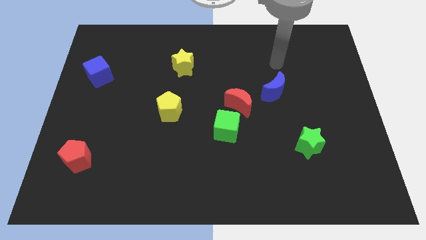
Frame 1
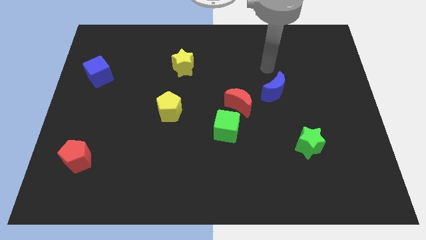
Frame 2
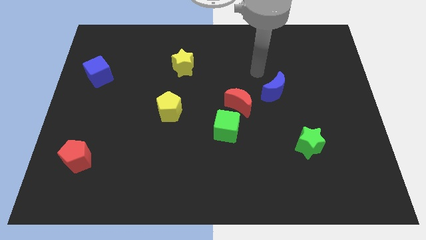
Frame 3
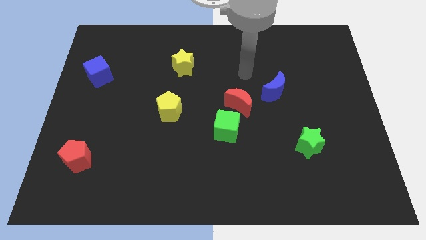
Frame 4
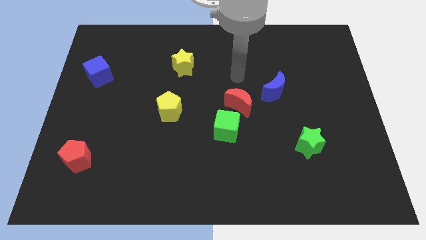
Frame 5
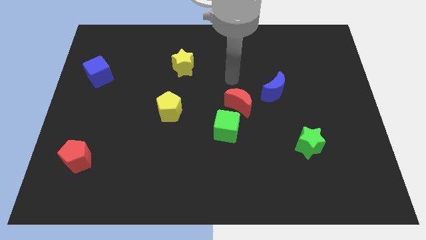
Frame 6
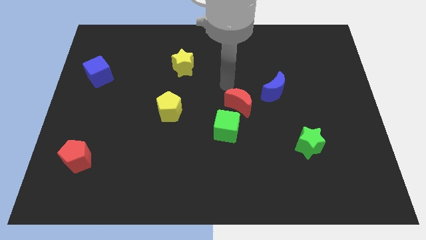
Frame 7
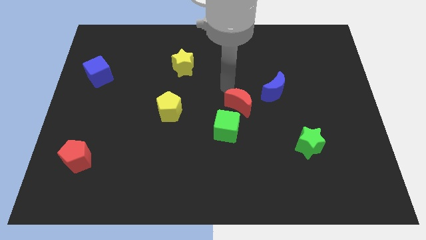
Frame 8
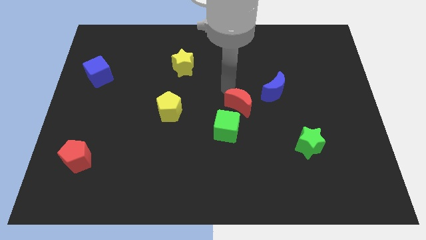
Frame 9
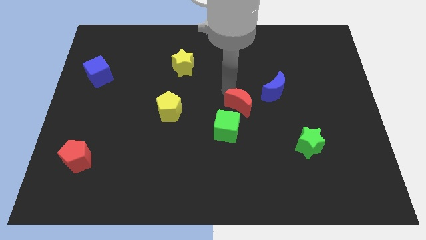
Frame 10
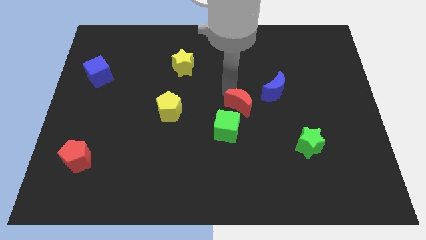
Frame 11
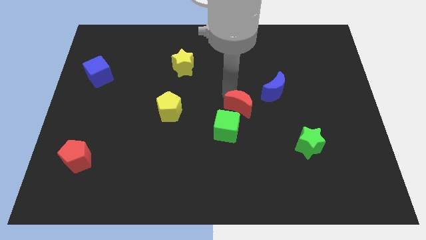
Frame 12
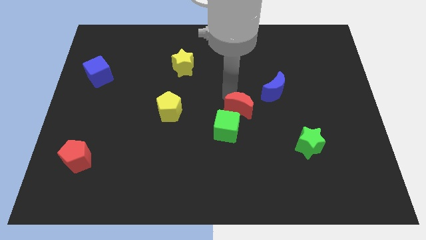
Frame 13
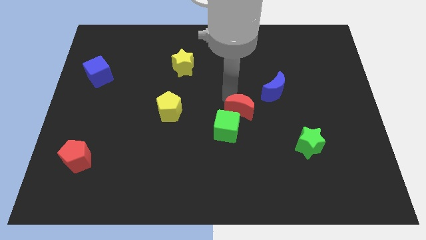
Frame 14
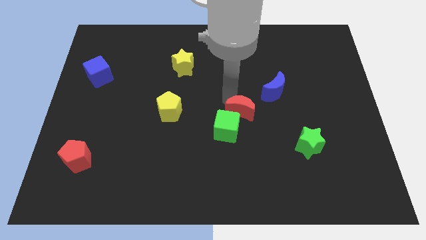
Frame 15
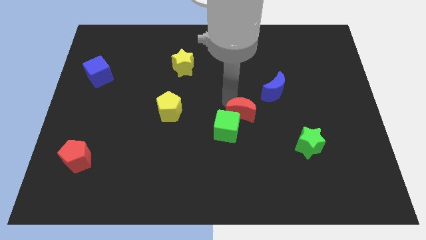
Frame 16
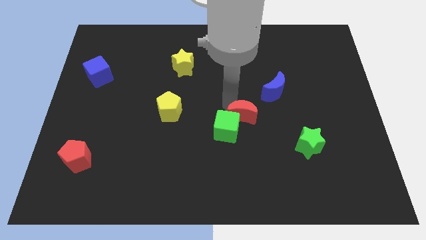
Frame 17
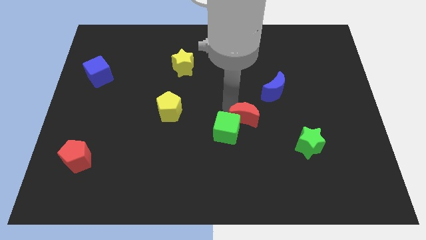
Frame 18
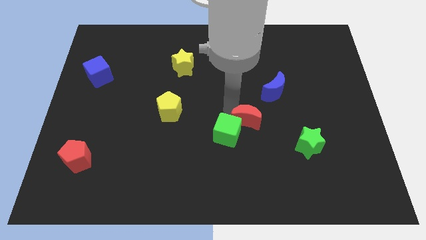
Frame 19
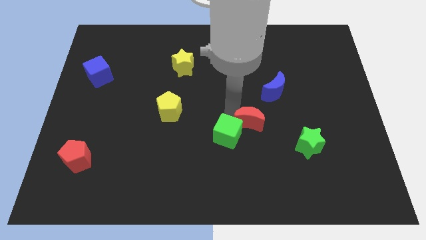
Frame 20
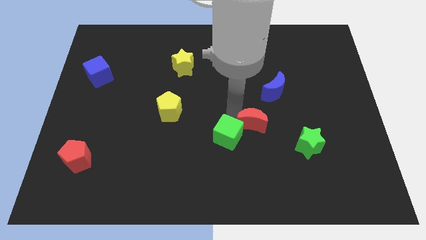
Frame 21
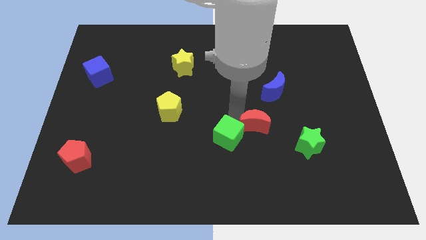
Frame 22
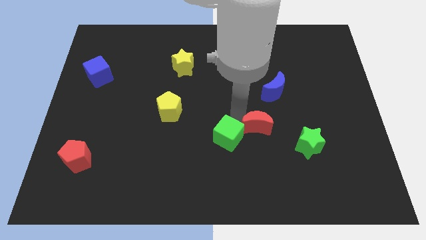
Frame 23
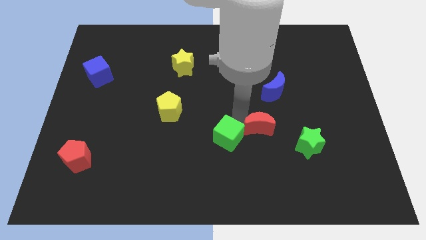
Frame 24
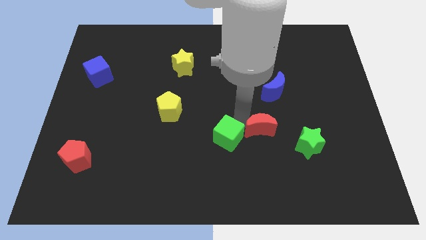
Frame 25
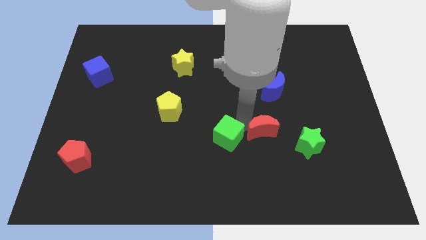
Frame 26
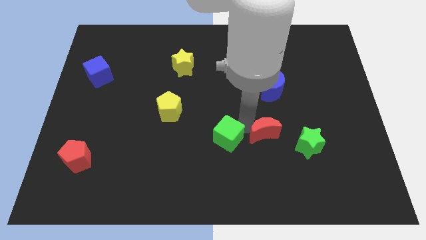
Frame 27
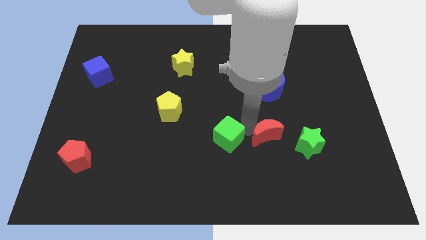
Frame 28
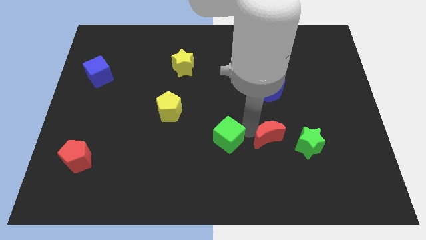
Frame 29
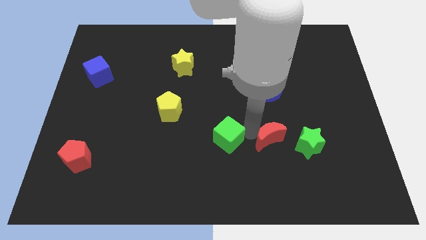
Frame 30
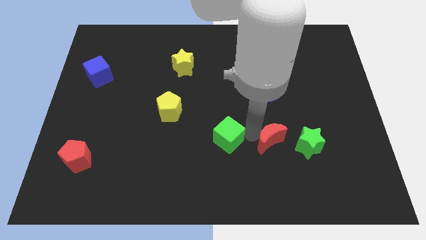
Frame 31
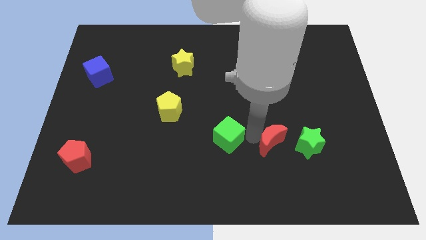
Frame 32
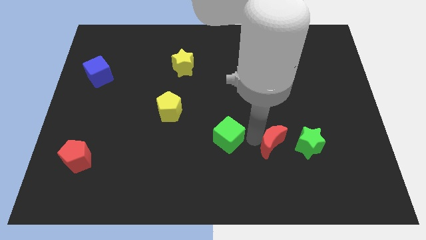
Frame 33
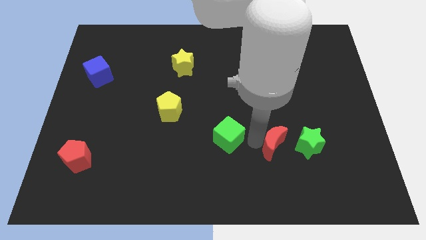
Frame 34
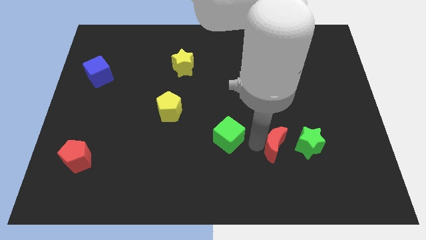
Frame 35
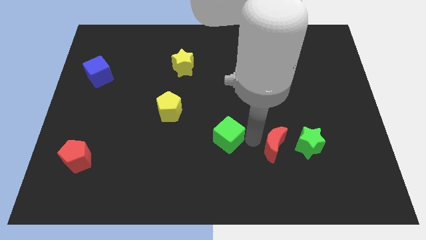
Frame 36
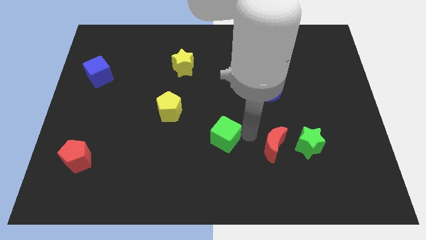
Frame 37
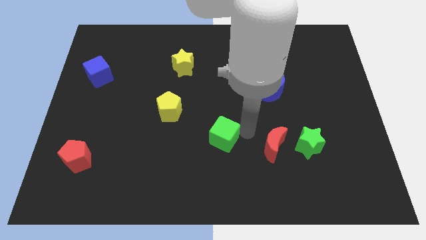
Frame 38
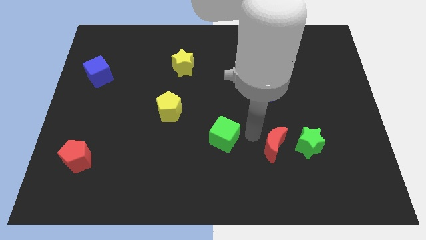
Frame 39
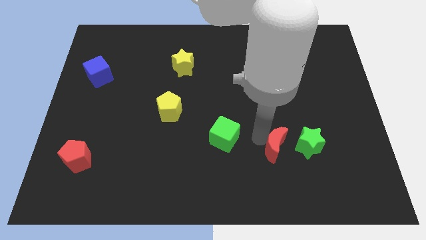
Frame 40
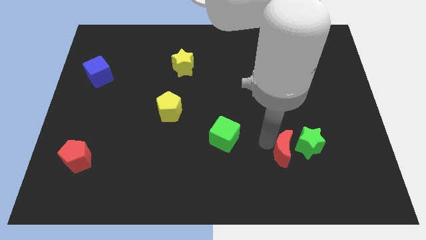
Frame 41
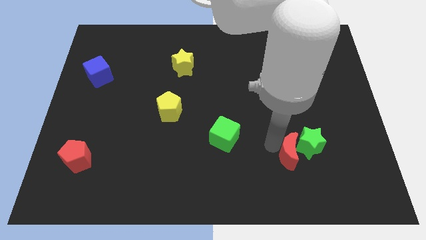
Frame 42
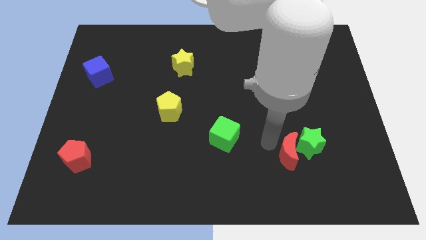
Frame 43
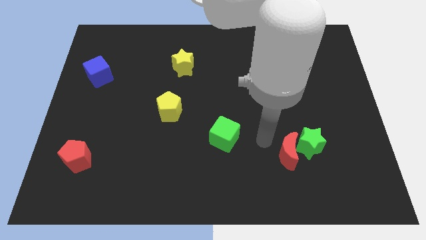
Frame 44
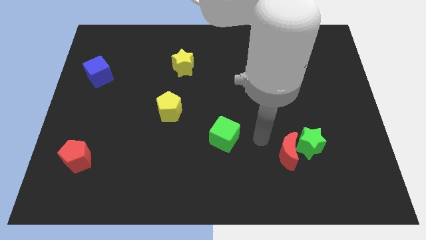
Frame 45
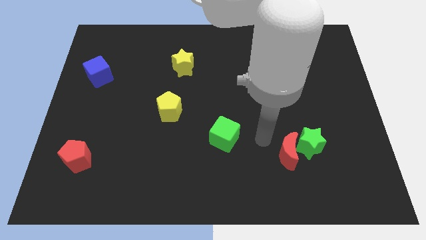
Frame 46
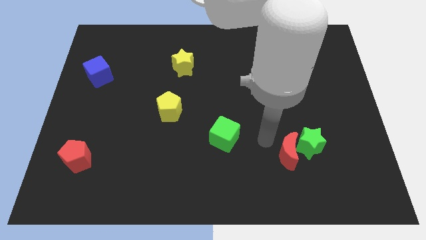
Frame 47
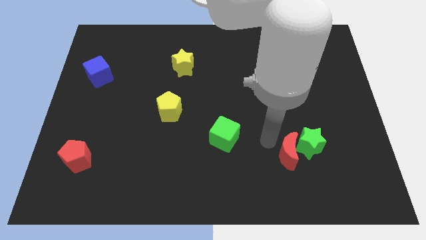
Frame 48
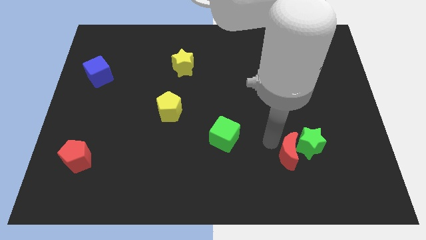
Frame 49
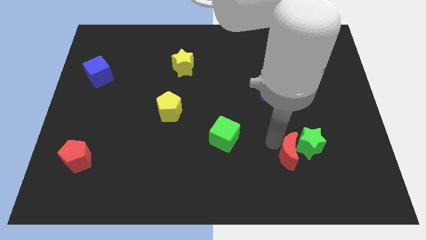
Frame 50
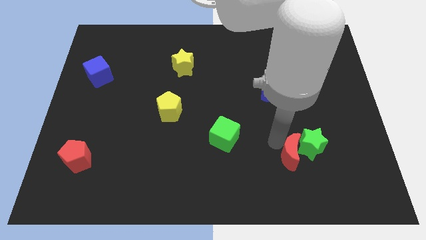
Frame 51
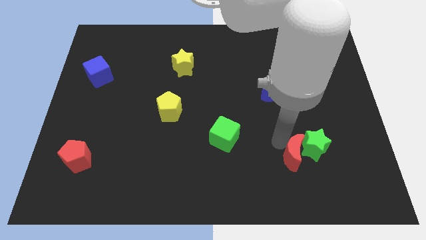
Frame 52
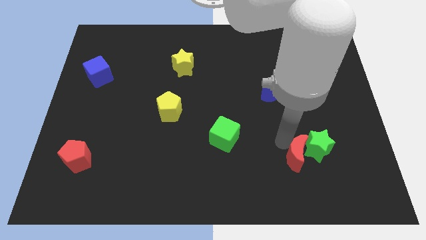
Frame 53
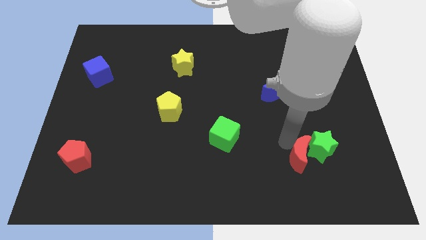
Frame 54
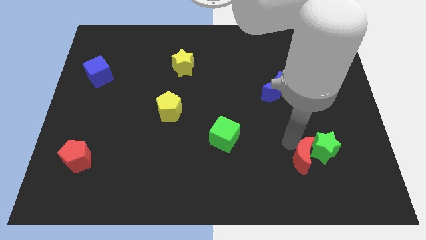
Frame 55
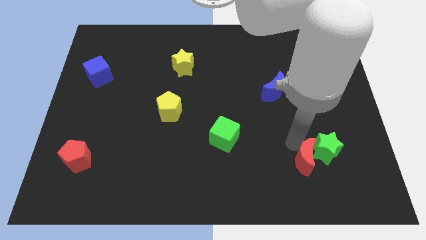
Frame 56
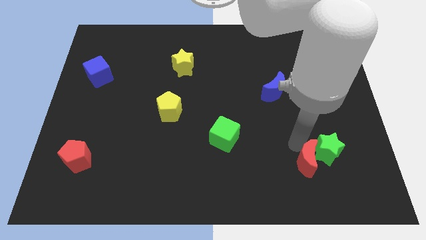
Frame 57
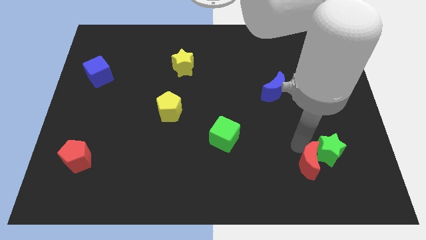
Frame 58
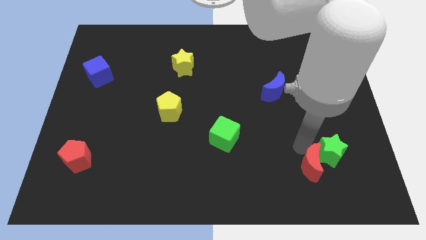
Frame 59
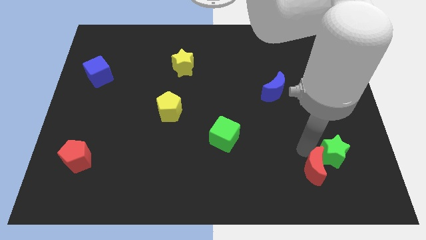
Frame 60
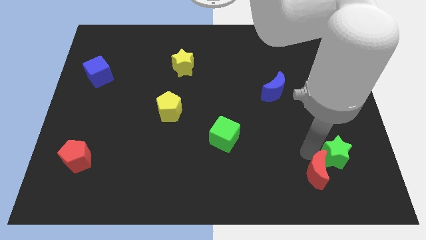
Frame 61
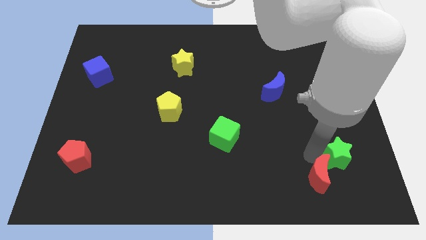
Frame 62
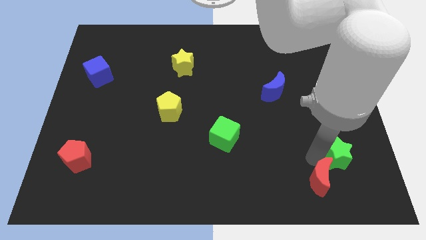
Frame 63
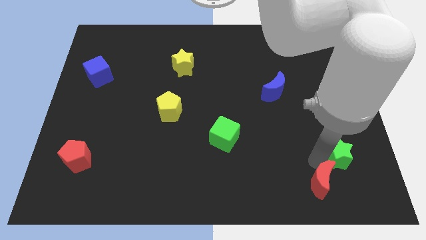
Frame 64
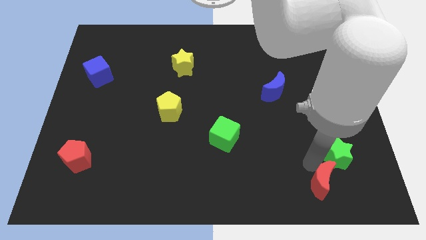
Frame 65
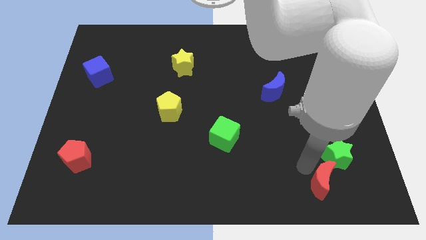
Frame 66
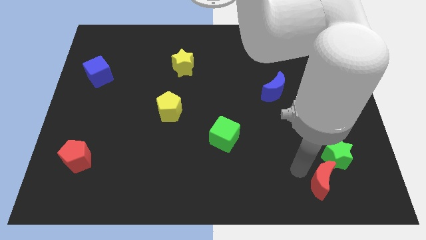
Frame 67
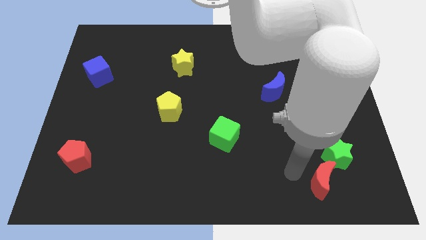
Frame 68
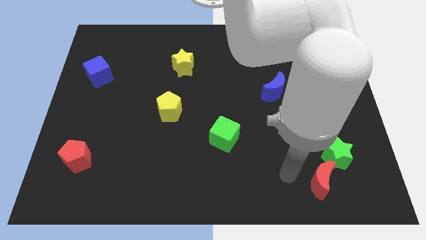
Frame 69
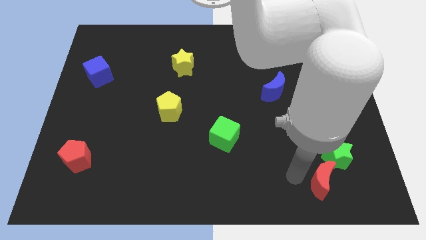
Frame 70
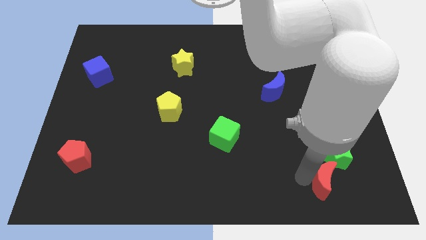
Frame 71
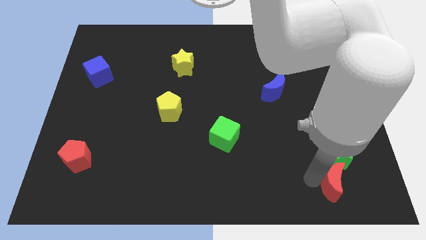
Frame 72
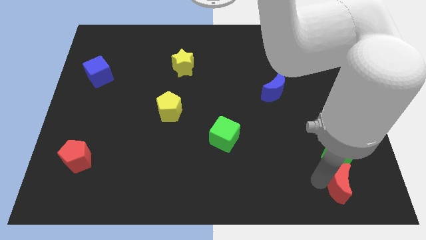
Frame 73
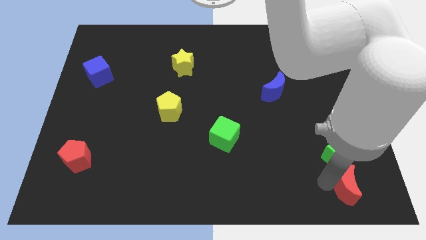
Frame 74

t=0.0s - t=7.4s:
move the red moon to the lower right corner
